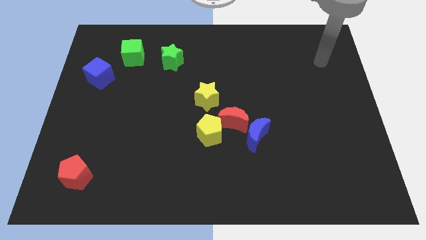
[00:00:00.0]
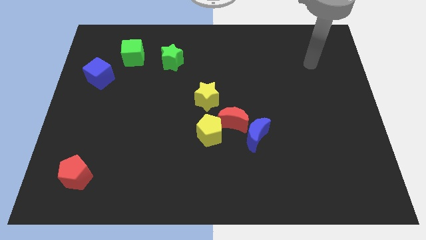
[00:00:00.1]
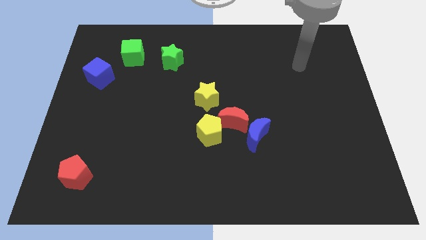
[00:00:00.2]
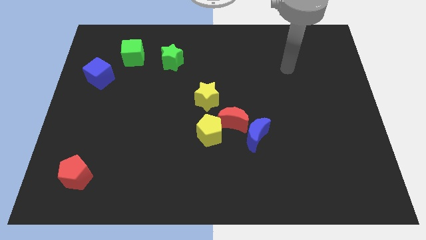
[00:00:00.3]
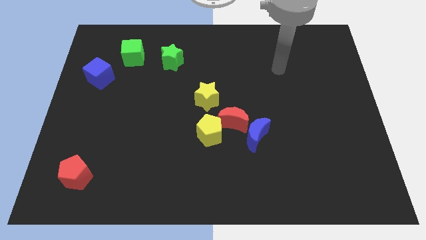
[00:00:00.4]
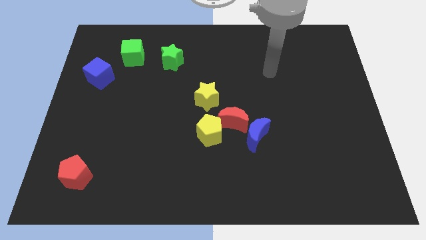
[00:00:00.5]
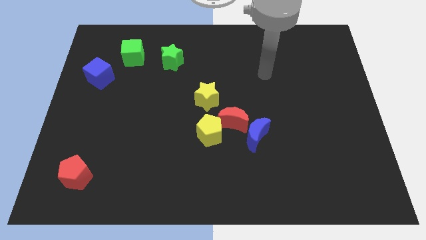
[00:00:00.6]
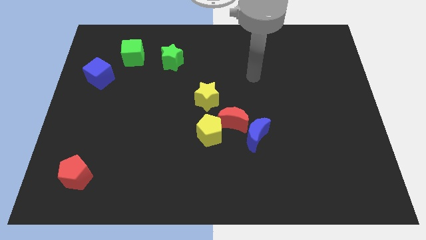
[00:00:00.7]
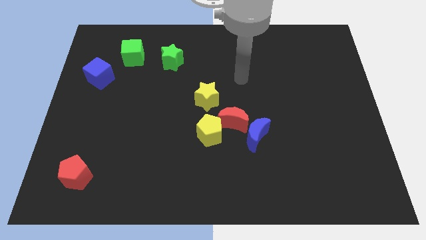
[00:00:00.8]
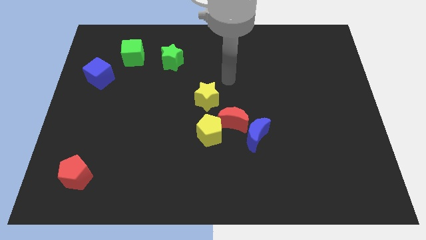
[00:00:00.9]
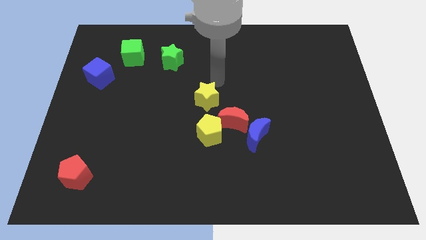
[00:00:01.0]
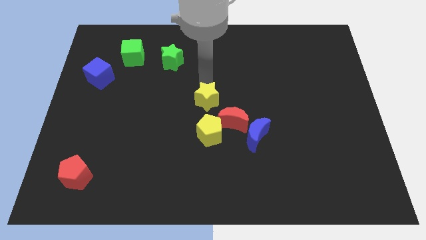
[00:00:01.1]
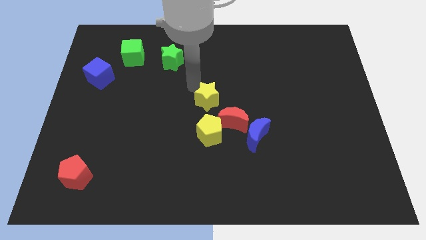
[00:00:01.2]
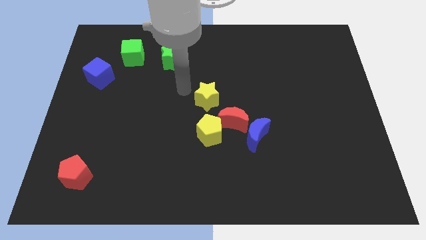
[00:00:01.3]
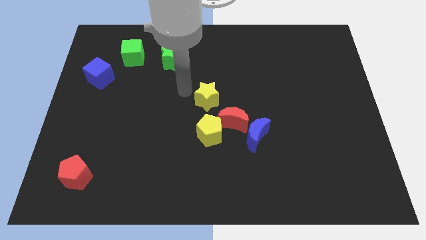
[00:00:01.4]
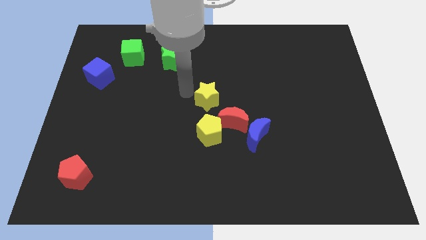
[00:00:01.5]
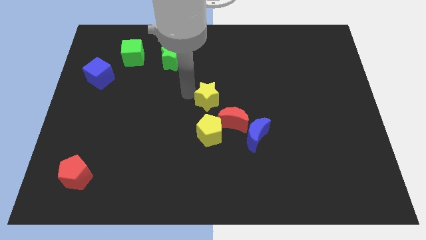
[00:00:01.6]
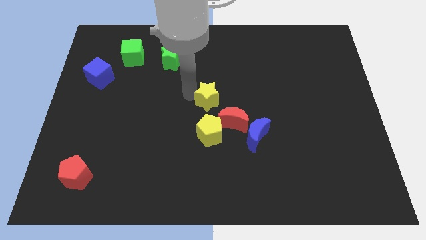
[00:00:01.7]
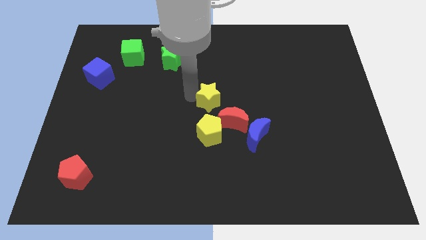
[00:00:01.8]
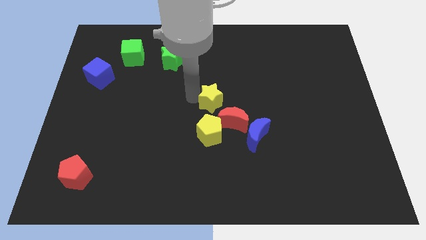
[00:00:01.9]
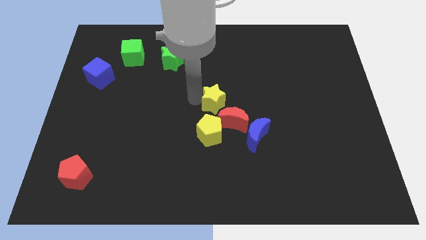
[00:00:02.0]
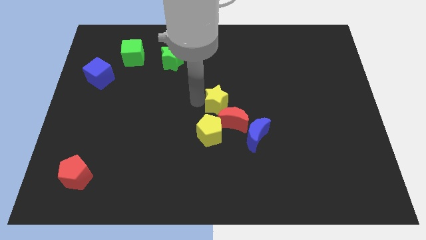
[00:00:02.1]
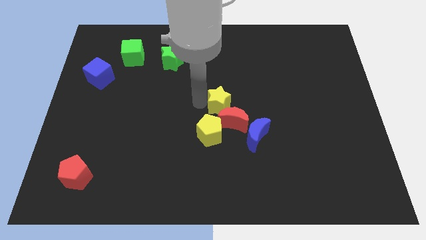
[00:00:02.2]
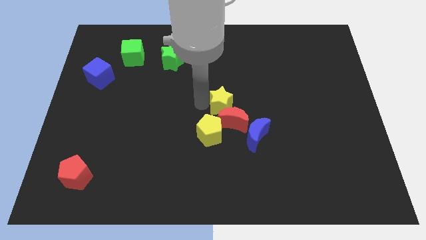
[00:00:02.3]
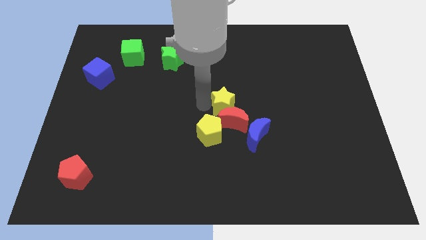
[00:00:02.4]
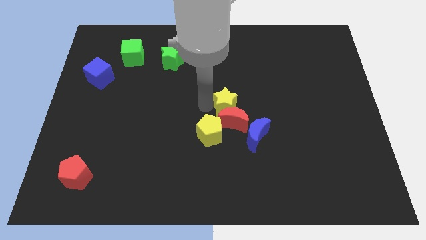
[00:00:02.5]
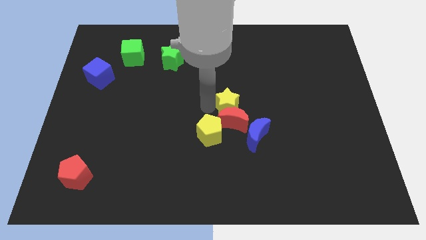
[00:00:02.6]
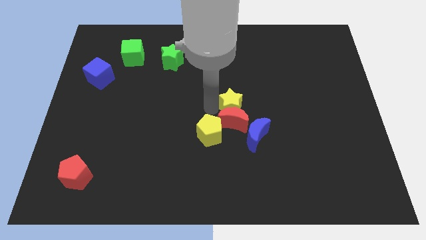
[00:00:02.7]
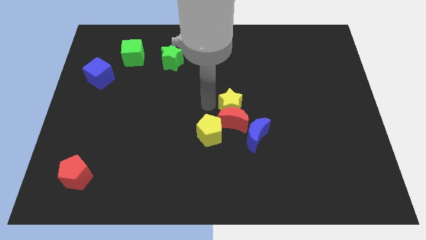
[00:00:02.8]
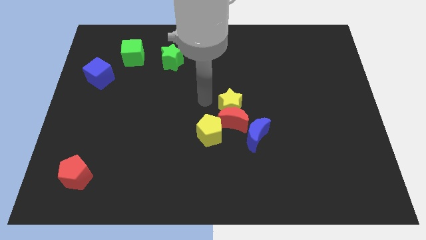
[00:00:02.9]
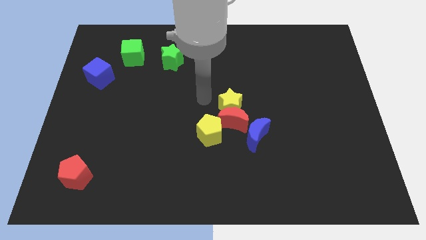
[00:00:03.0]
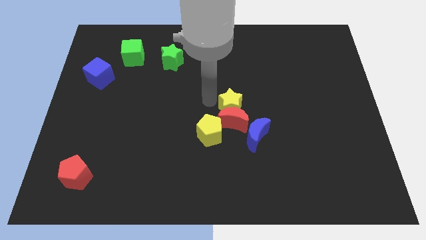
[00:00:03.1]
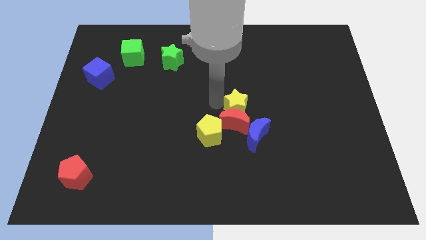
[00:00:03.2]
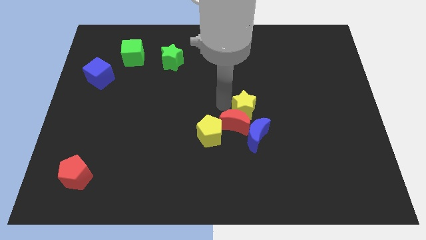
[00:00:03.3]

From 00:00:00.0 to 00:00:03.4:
move the yellow star a bit down and then right

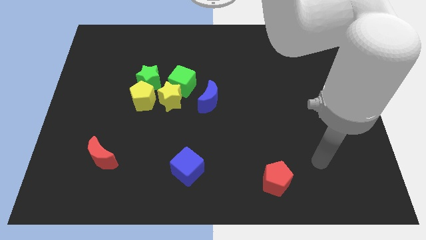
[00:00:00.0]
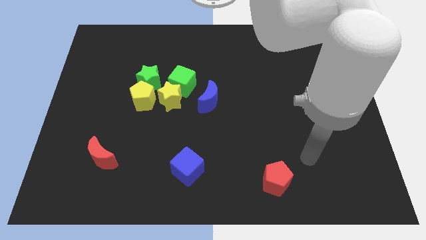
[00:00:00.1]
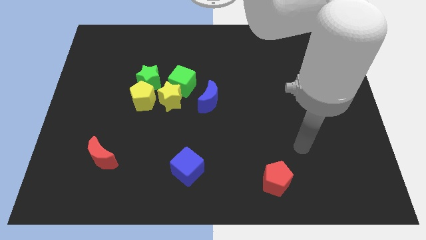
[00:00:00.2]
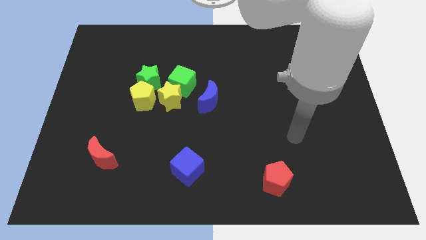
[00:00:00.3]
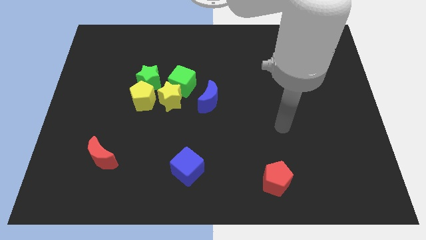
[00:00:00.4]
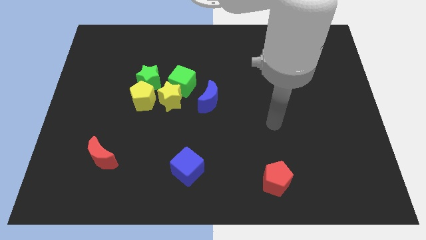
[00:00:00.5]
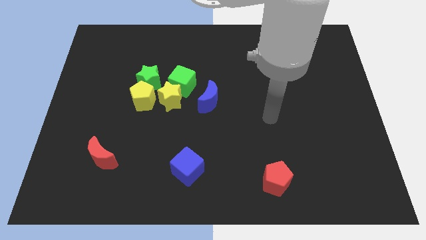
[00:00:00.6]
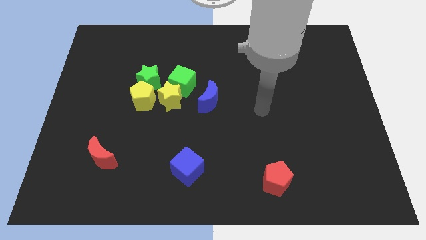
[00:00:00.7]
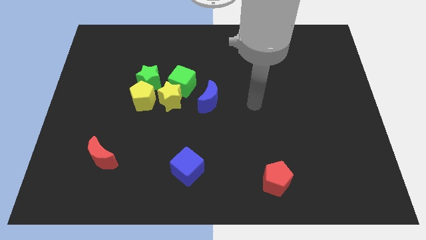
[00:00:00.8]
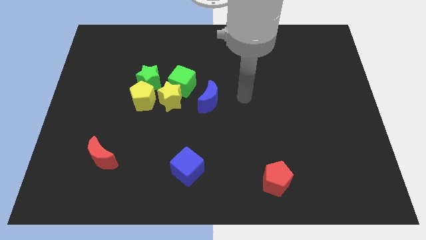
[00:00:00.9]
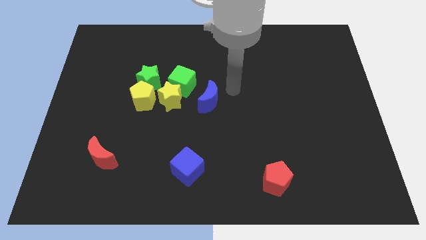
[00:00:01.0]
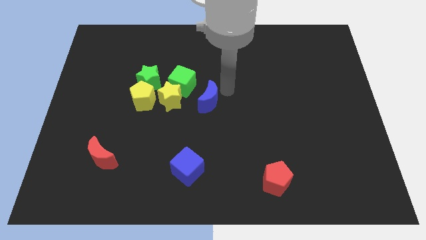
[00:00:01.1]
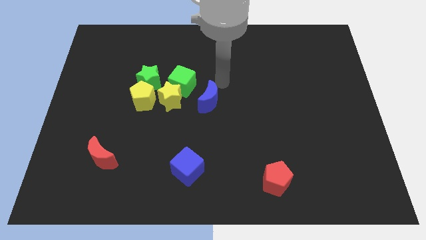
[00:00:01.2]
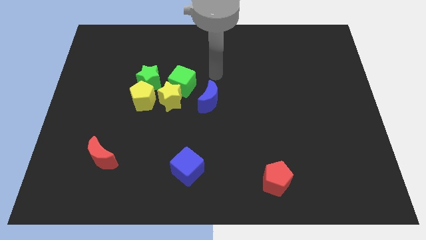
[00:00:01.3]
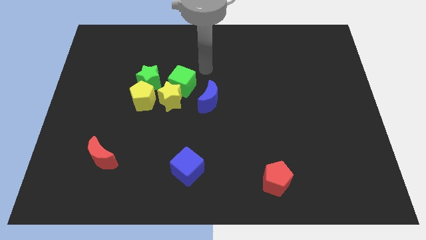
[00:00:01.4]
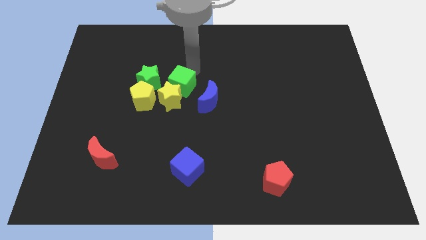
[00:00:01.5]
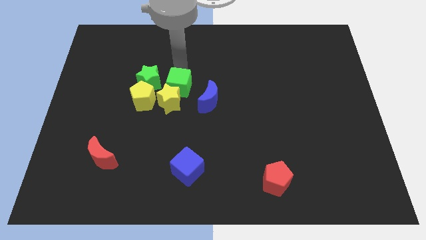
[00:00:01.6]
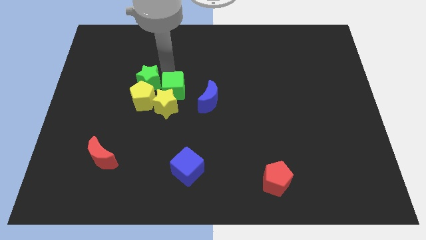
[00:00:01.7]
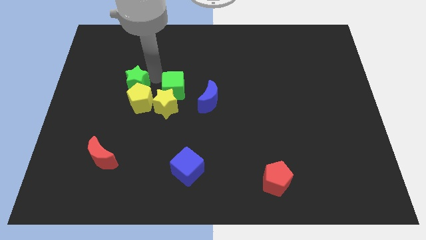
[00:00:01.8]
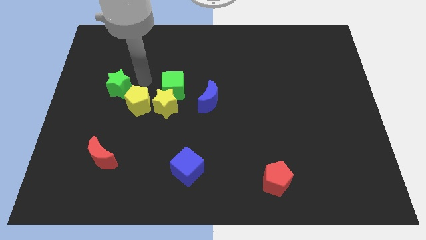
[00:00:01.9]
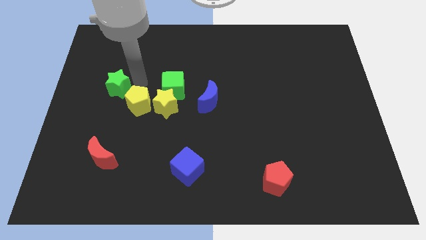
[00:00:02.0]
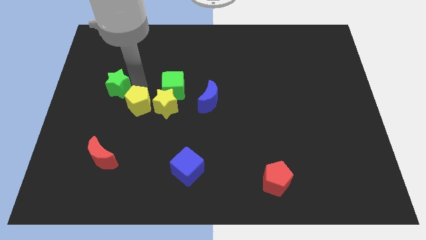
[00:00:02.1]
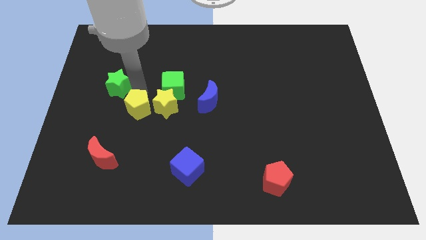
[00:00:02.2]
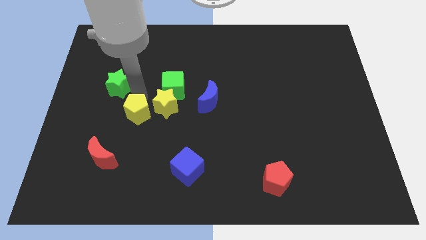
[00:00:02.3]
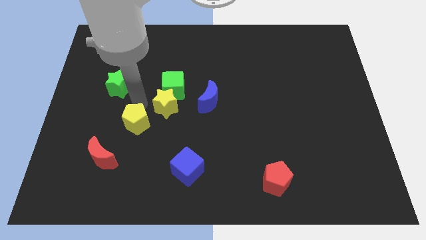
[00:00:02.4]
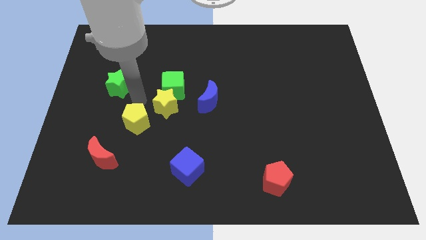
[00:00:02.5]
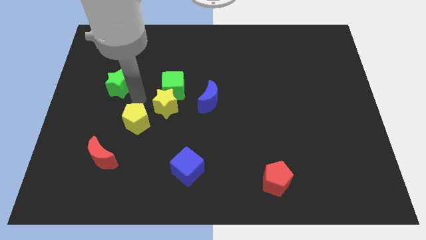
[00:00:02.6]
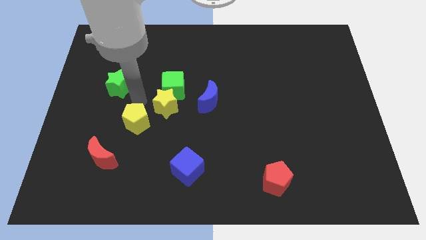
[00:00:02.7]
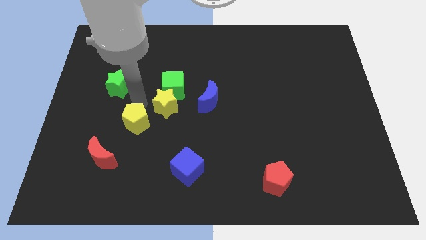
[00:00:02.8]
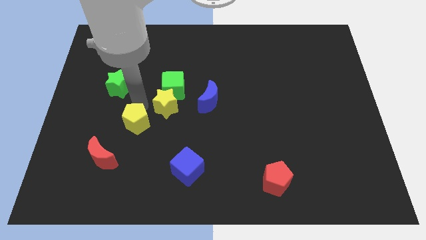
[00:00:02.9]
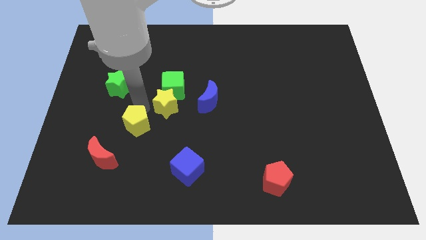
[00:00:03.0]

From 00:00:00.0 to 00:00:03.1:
slide the yellow pentagon down a little bit

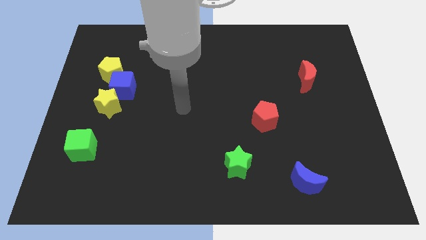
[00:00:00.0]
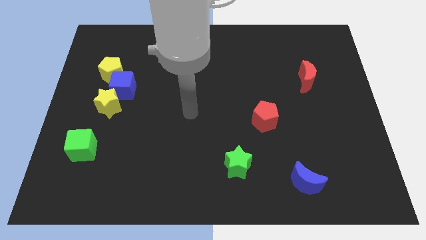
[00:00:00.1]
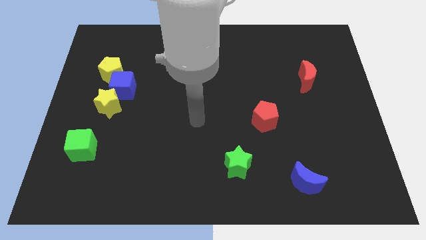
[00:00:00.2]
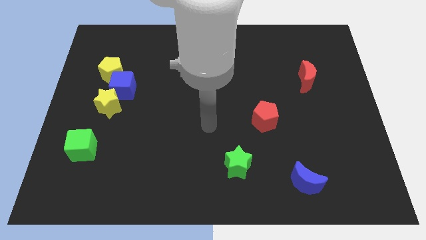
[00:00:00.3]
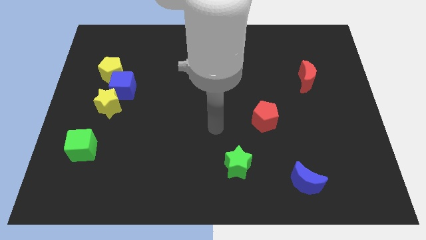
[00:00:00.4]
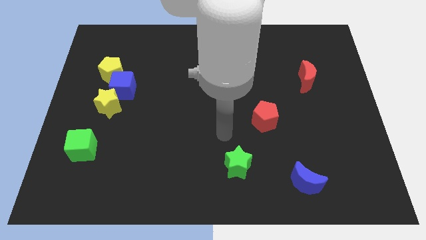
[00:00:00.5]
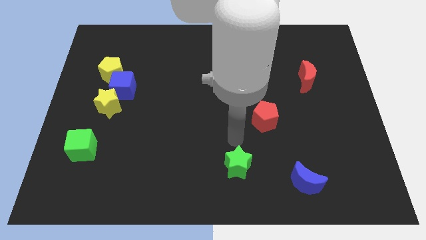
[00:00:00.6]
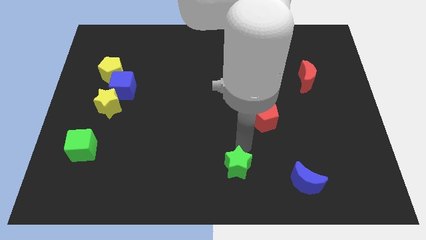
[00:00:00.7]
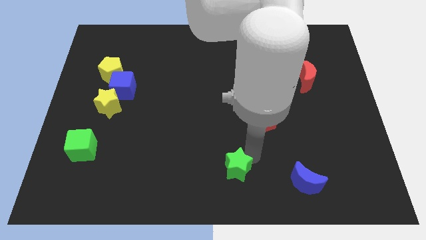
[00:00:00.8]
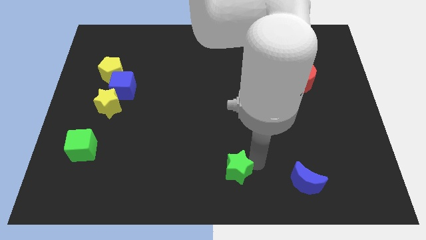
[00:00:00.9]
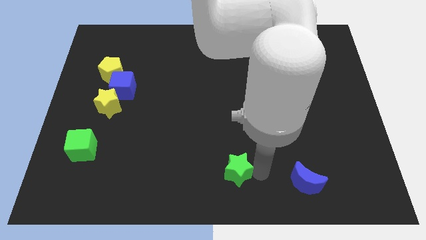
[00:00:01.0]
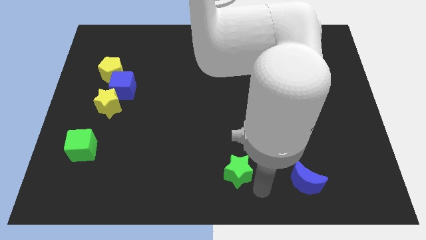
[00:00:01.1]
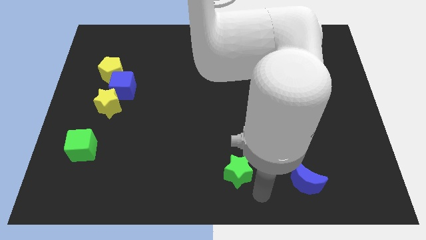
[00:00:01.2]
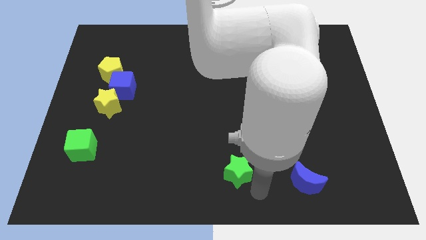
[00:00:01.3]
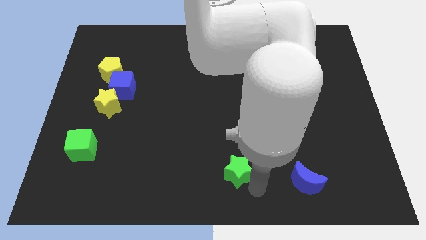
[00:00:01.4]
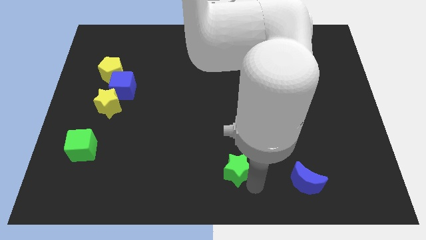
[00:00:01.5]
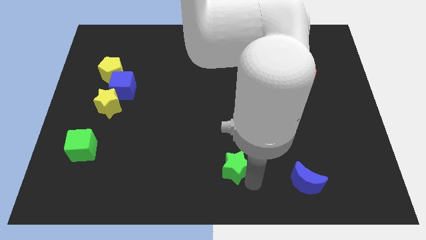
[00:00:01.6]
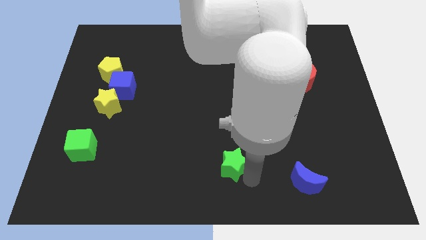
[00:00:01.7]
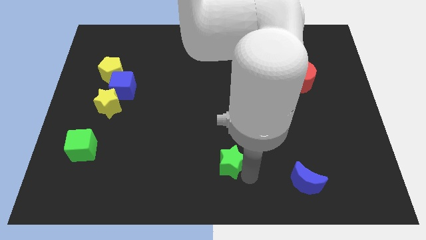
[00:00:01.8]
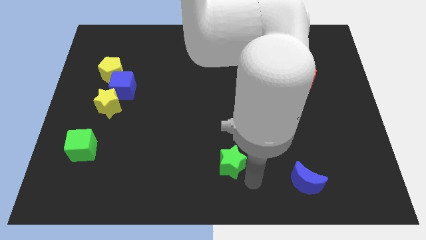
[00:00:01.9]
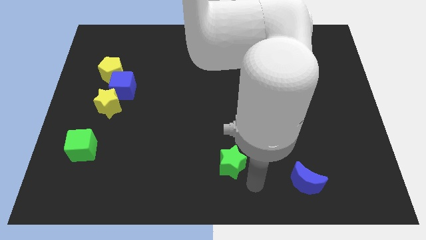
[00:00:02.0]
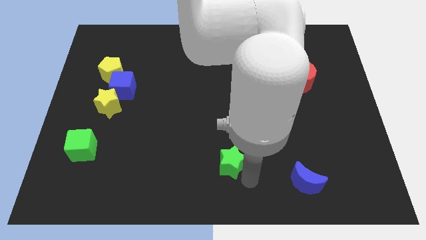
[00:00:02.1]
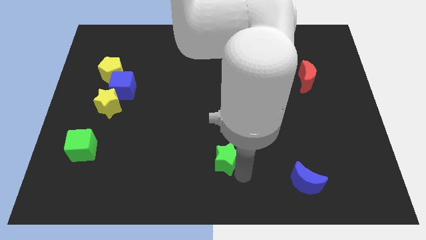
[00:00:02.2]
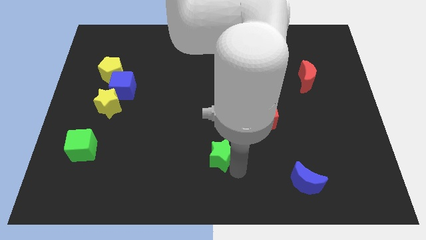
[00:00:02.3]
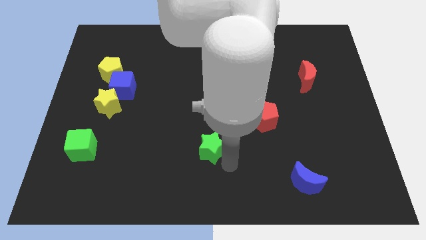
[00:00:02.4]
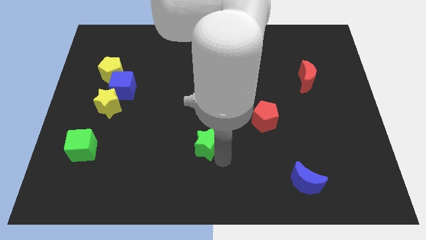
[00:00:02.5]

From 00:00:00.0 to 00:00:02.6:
slide the green star upwards and left a little bit
